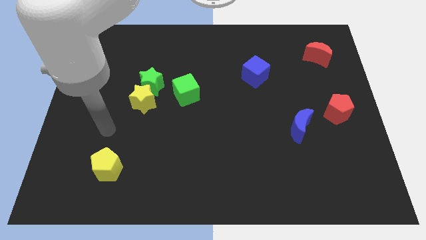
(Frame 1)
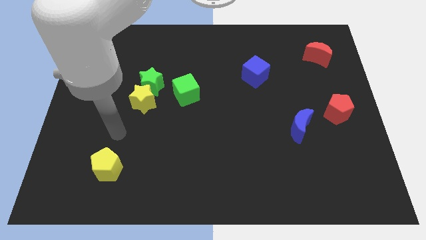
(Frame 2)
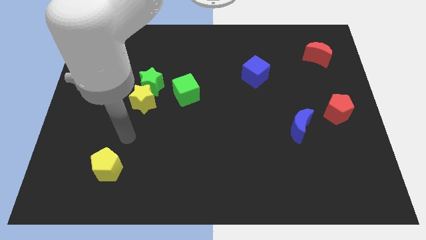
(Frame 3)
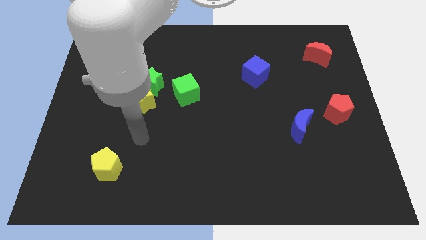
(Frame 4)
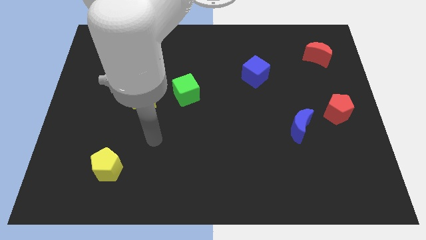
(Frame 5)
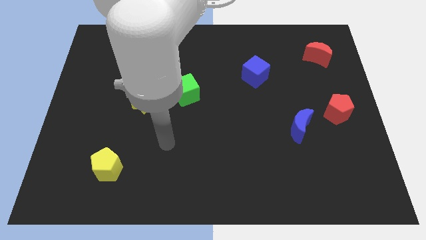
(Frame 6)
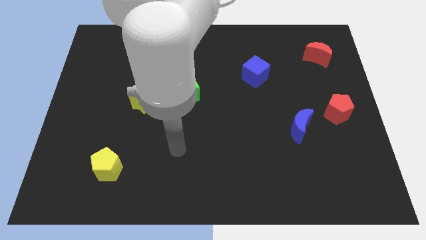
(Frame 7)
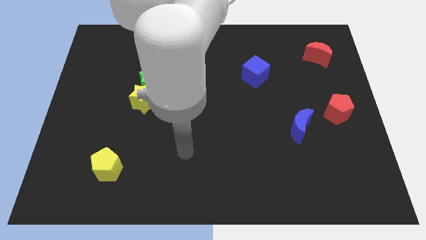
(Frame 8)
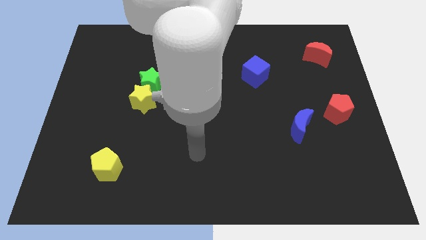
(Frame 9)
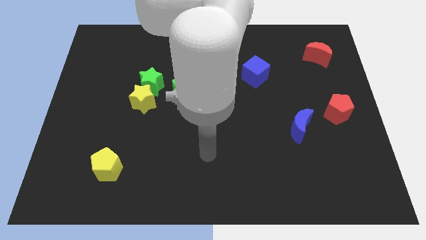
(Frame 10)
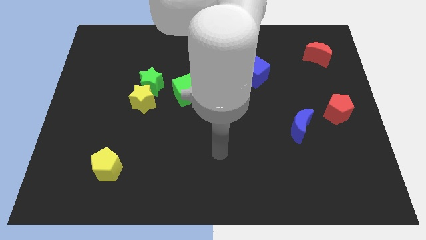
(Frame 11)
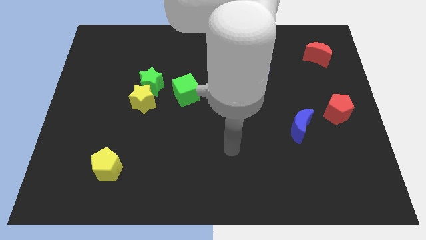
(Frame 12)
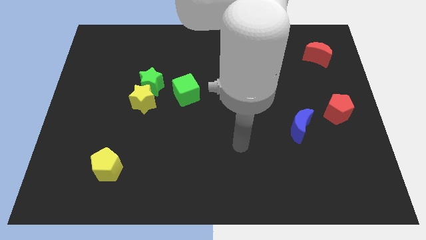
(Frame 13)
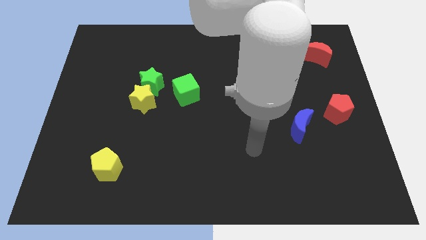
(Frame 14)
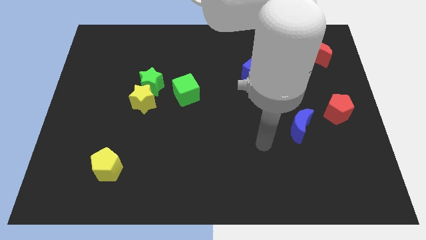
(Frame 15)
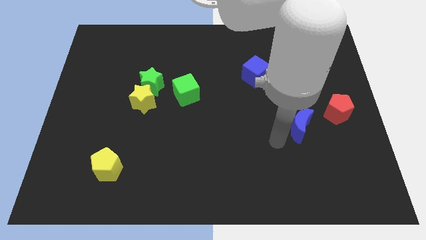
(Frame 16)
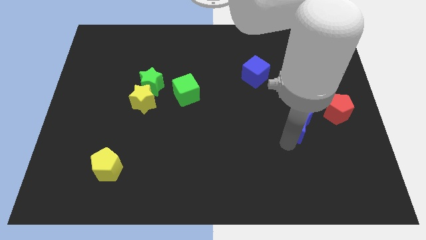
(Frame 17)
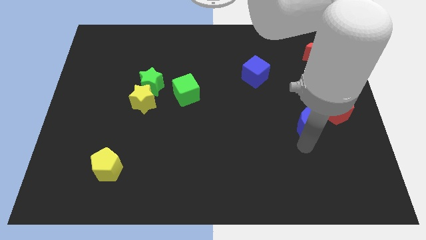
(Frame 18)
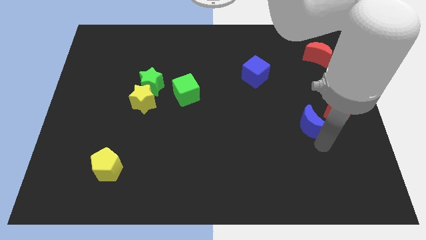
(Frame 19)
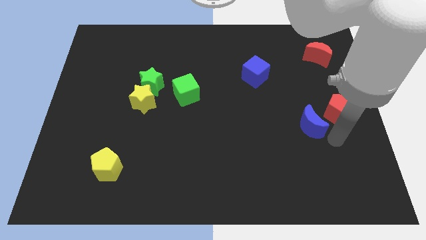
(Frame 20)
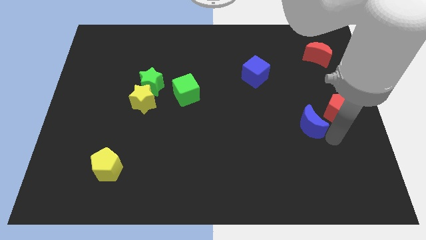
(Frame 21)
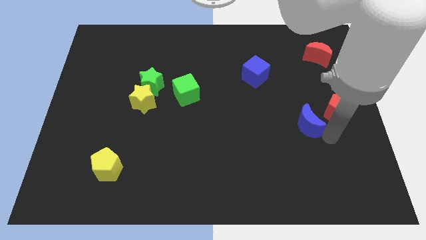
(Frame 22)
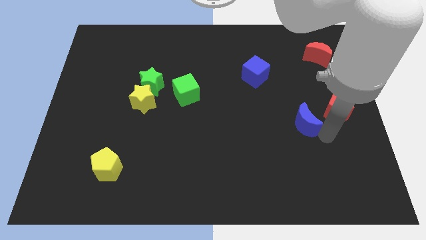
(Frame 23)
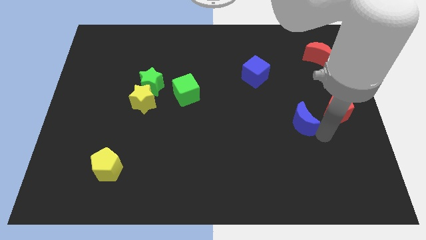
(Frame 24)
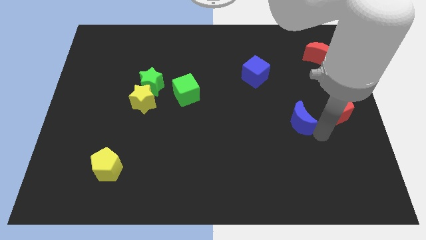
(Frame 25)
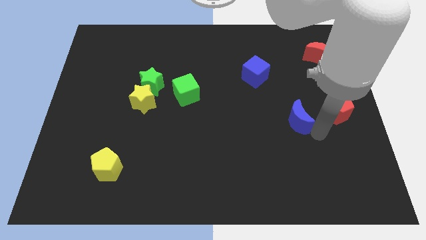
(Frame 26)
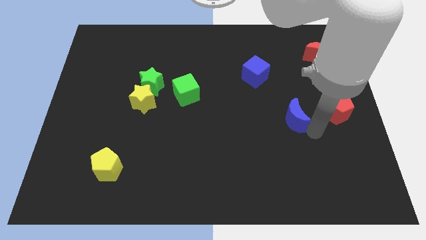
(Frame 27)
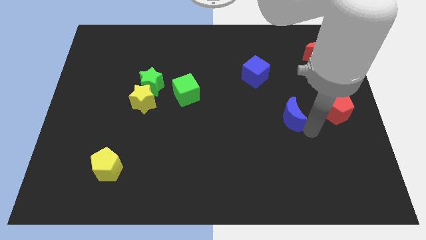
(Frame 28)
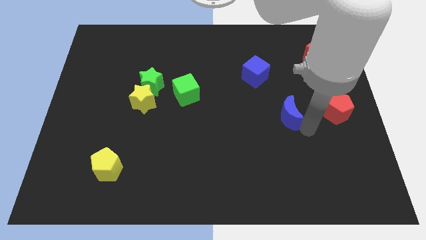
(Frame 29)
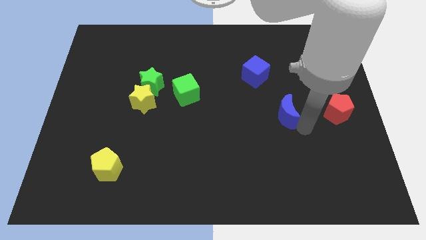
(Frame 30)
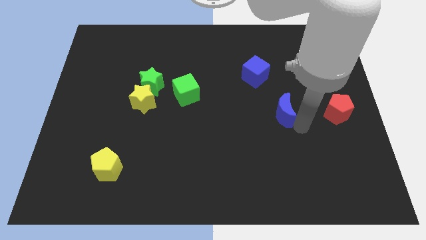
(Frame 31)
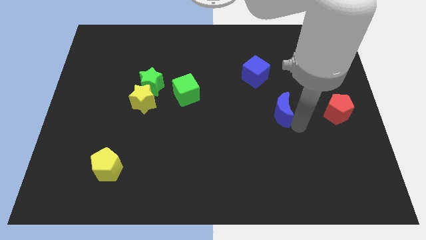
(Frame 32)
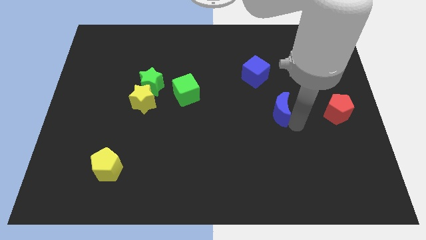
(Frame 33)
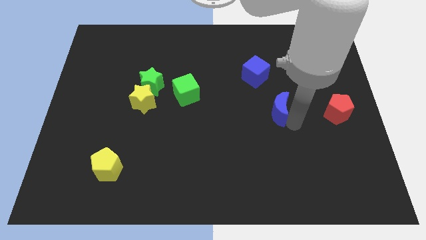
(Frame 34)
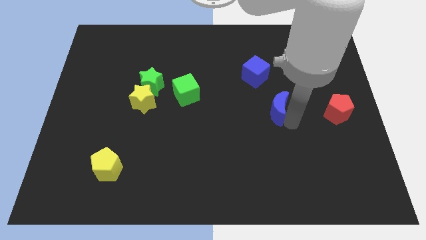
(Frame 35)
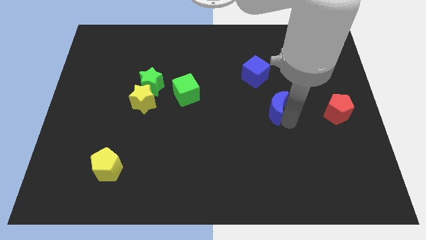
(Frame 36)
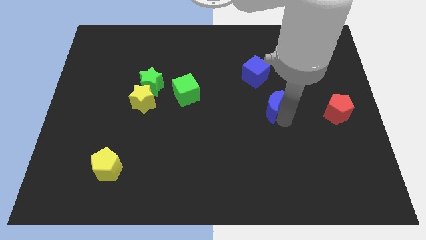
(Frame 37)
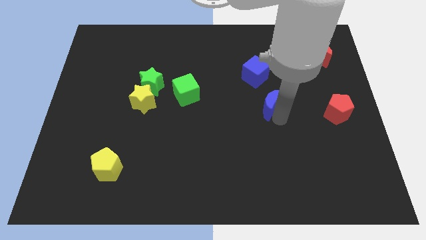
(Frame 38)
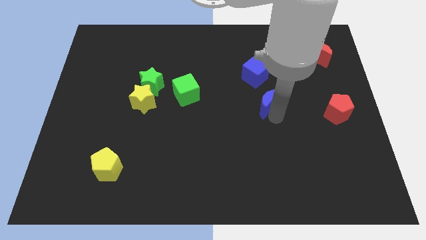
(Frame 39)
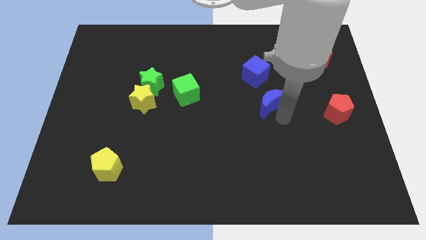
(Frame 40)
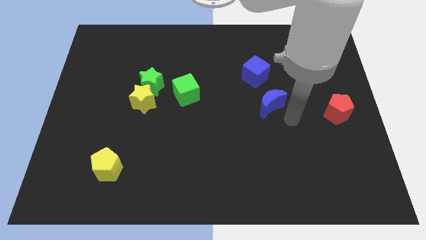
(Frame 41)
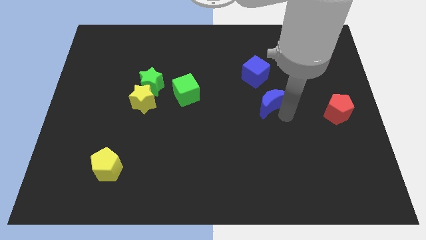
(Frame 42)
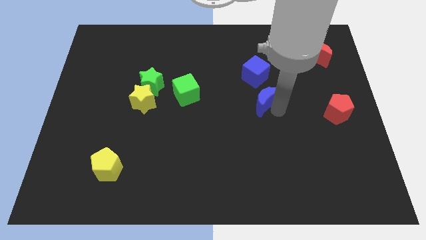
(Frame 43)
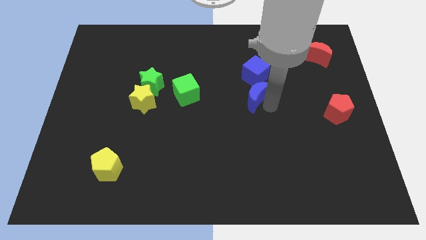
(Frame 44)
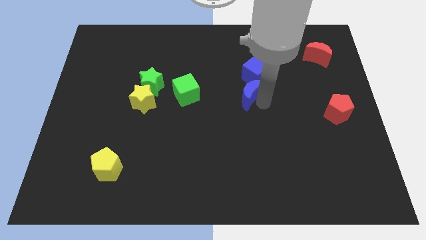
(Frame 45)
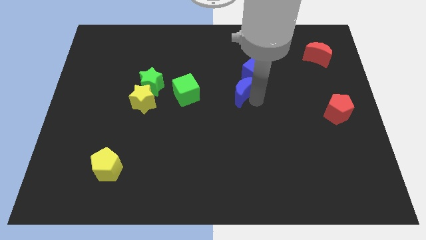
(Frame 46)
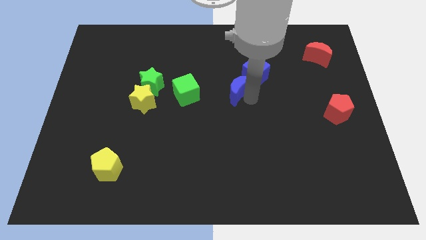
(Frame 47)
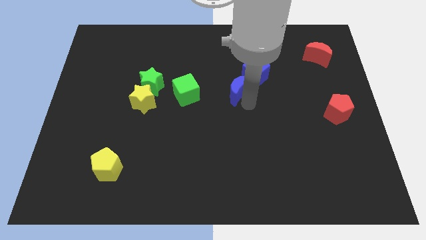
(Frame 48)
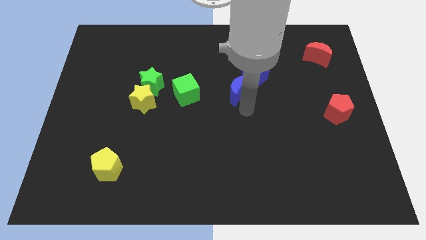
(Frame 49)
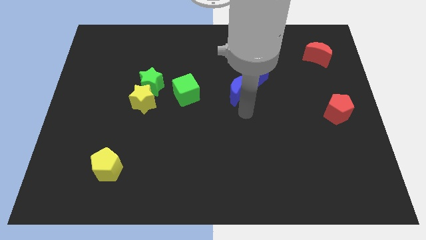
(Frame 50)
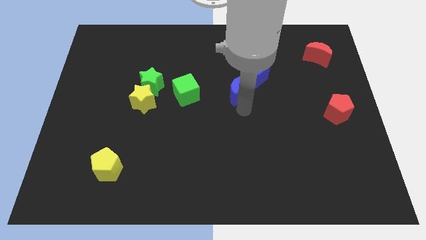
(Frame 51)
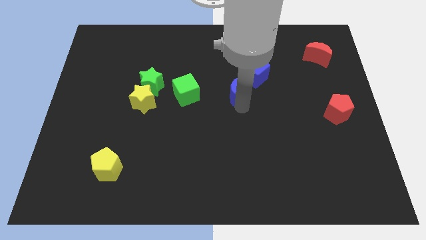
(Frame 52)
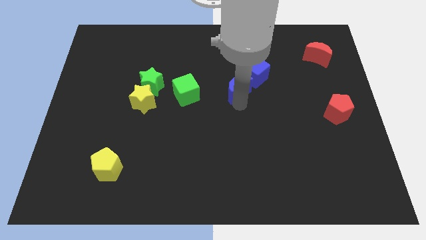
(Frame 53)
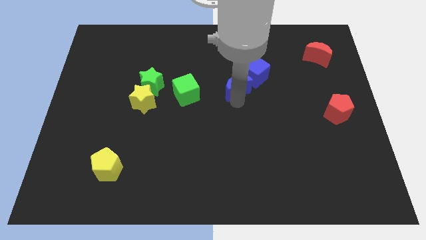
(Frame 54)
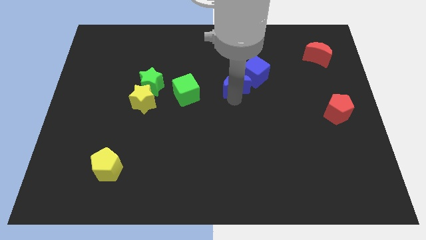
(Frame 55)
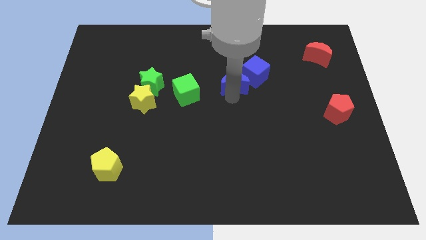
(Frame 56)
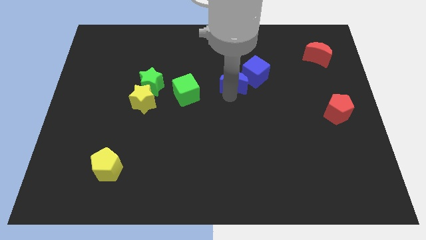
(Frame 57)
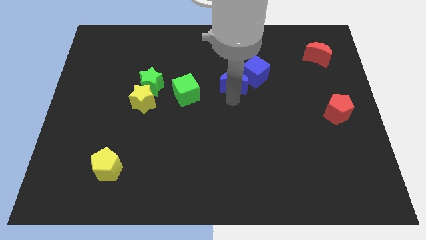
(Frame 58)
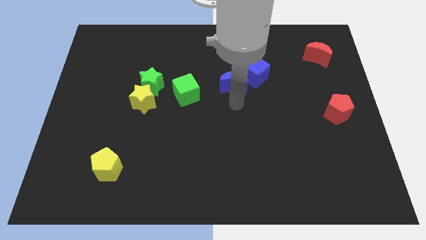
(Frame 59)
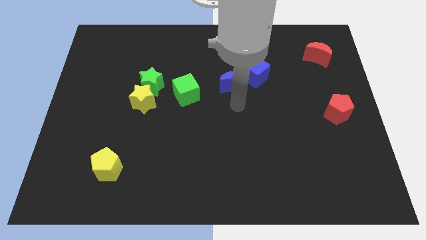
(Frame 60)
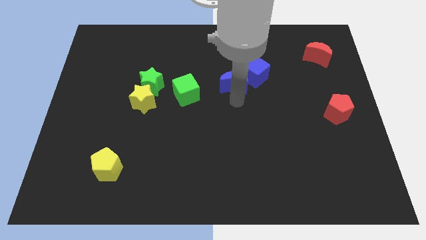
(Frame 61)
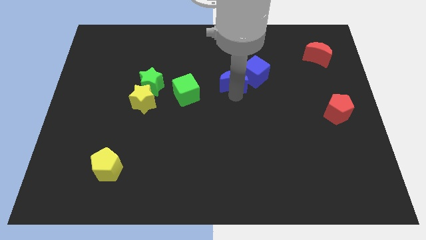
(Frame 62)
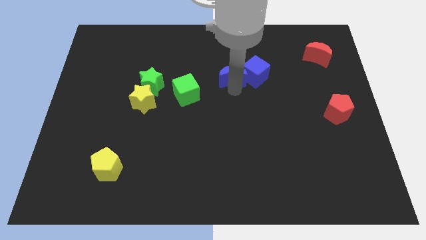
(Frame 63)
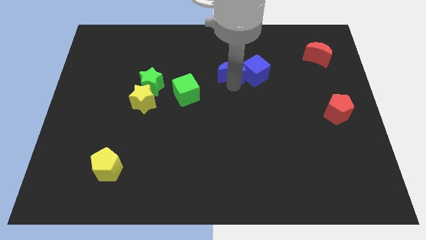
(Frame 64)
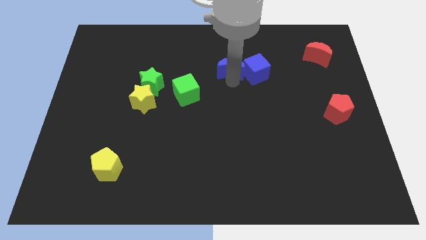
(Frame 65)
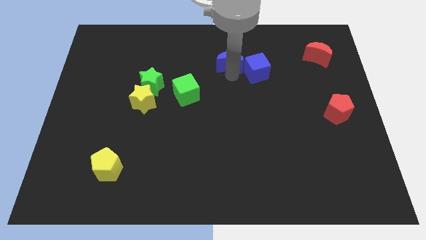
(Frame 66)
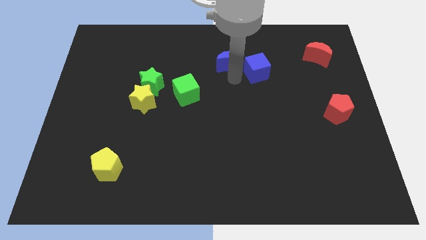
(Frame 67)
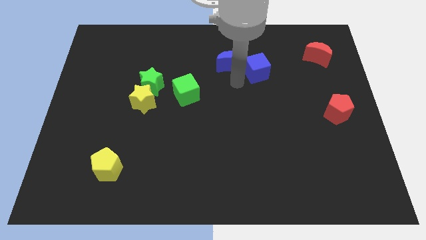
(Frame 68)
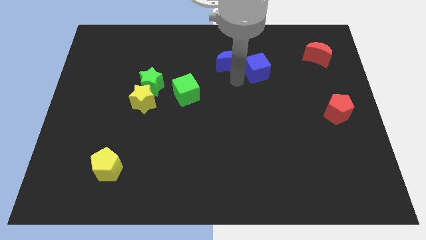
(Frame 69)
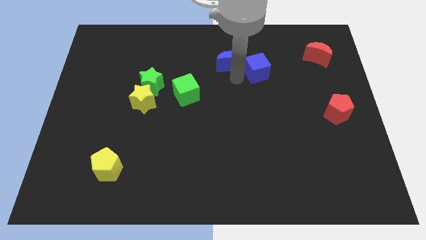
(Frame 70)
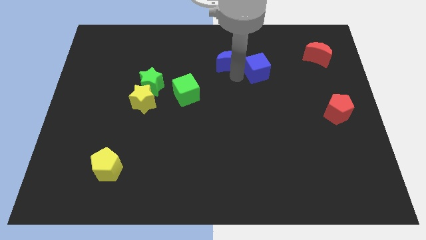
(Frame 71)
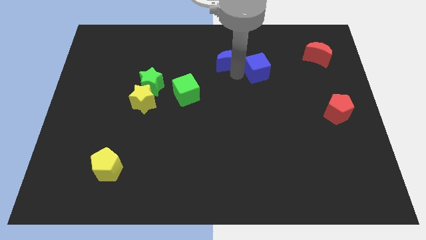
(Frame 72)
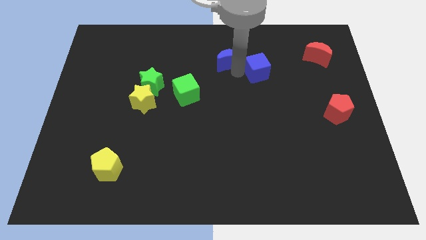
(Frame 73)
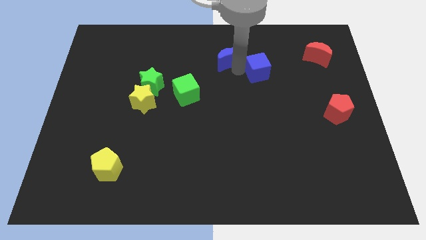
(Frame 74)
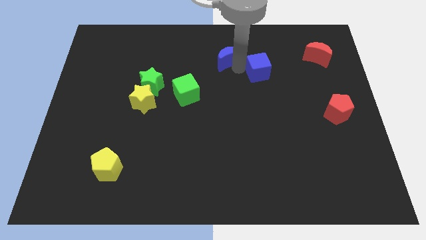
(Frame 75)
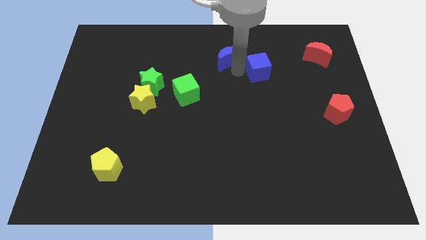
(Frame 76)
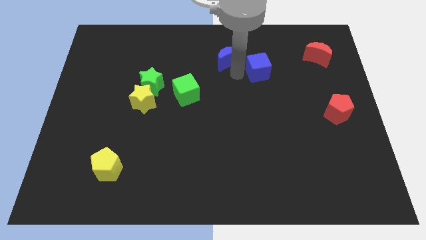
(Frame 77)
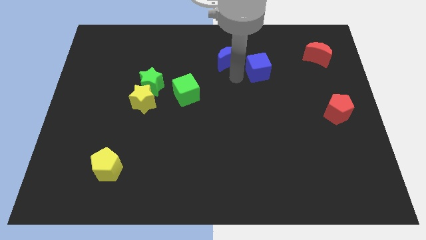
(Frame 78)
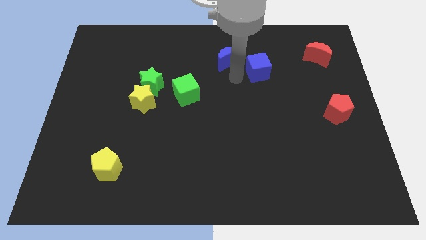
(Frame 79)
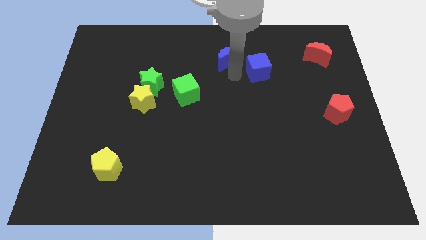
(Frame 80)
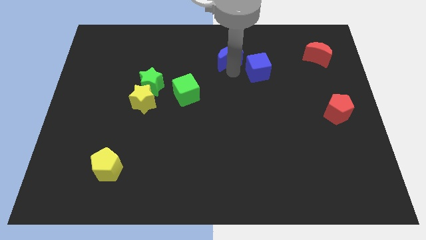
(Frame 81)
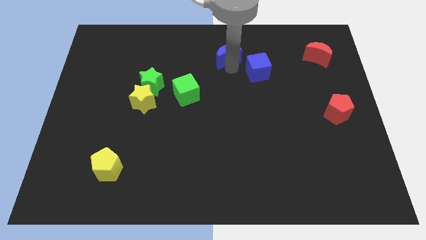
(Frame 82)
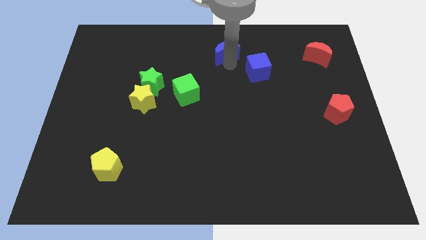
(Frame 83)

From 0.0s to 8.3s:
put the blue moon to the top
